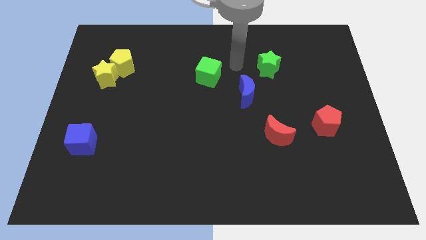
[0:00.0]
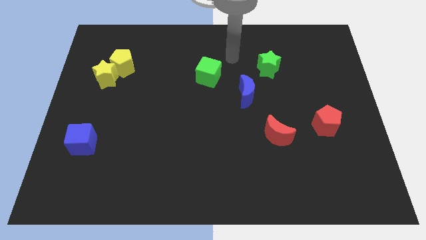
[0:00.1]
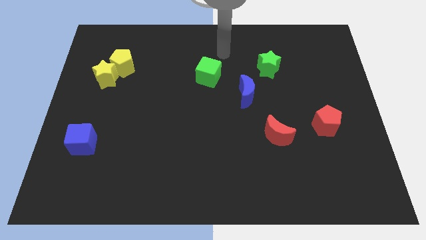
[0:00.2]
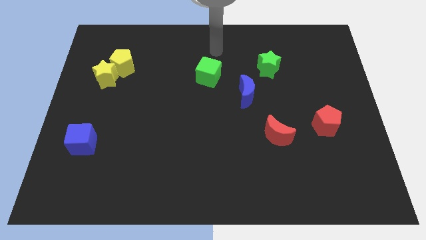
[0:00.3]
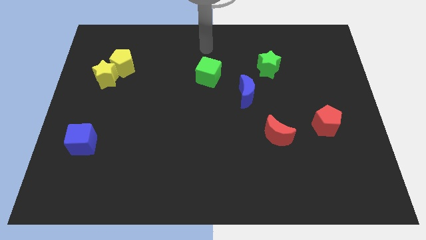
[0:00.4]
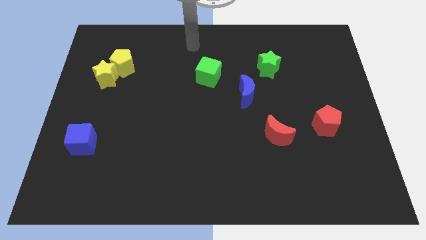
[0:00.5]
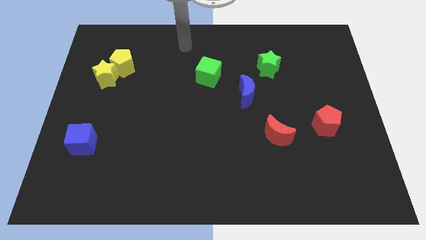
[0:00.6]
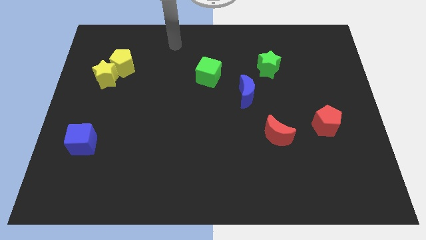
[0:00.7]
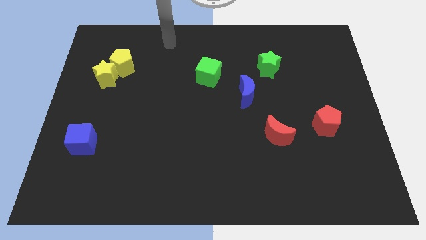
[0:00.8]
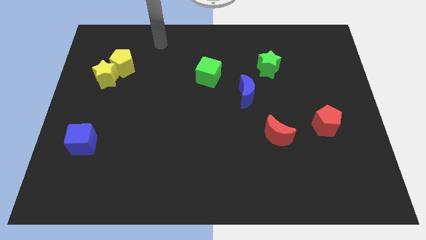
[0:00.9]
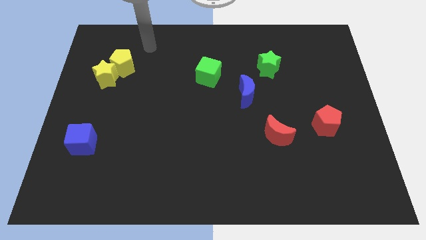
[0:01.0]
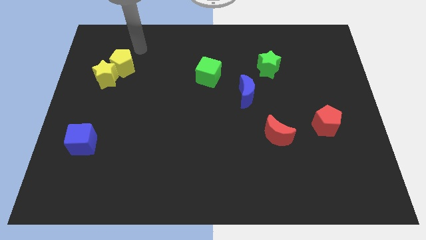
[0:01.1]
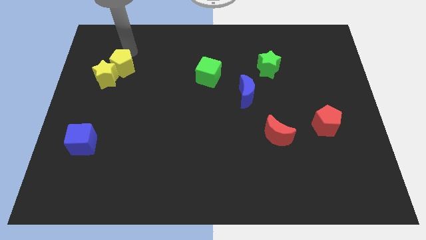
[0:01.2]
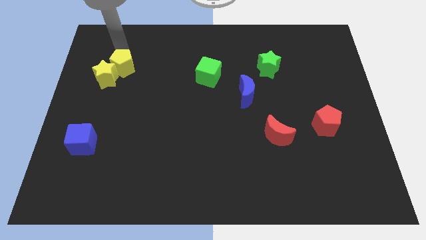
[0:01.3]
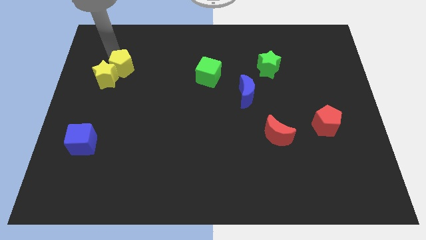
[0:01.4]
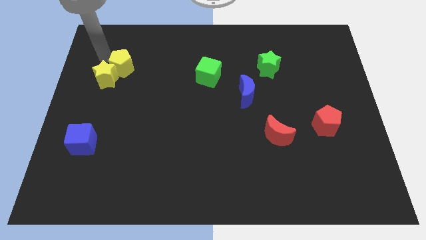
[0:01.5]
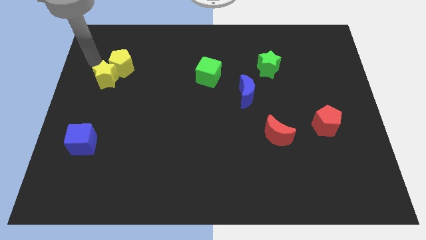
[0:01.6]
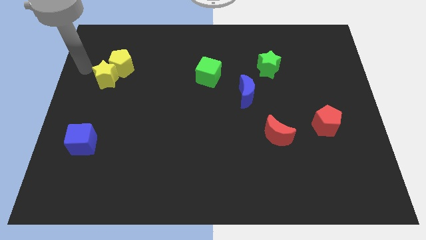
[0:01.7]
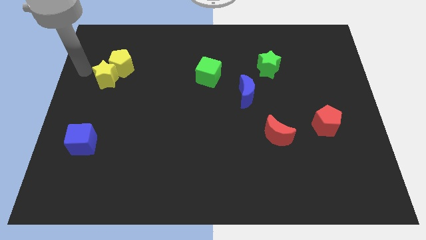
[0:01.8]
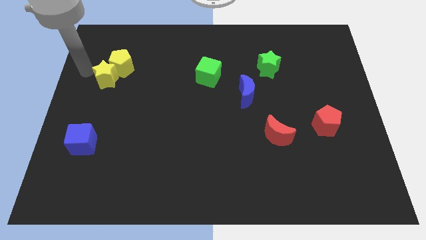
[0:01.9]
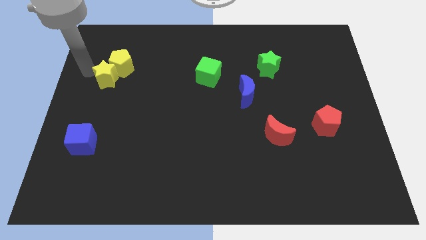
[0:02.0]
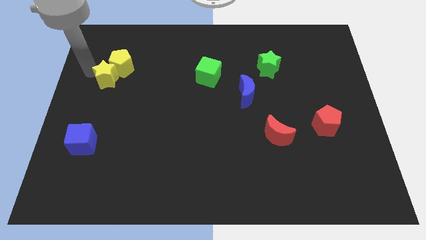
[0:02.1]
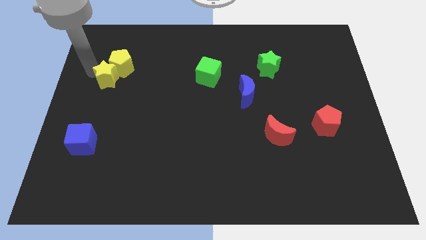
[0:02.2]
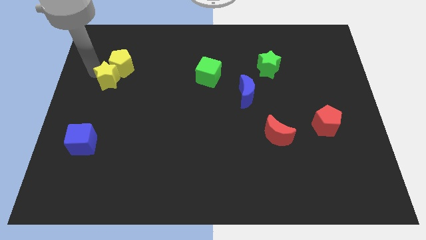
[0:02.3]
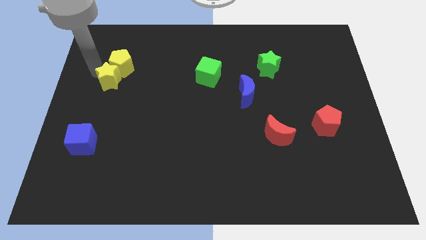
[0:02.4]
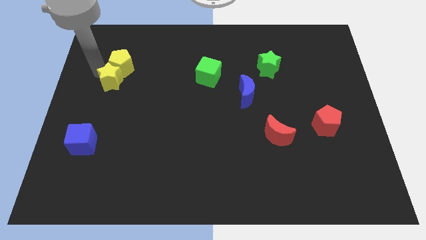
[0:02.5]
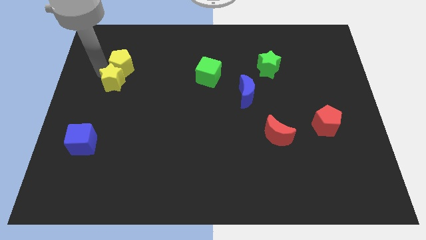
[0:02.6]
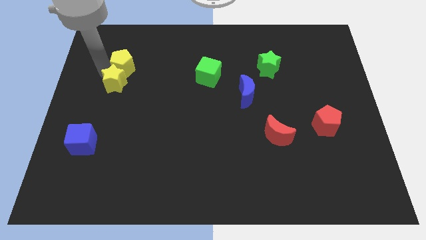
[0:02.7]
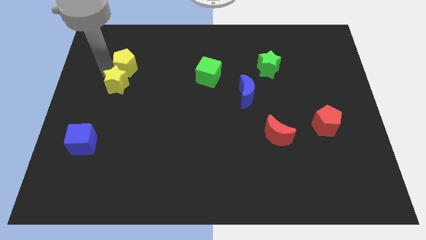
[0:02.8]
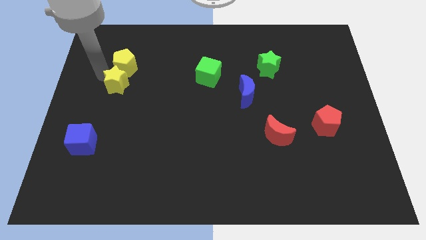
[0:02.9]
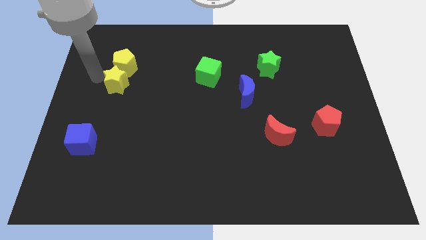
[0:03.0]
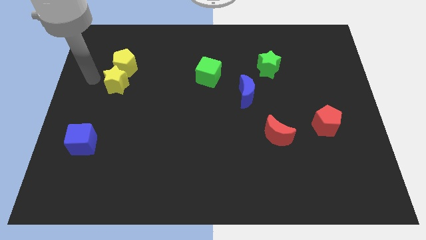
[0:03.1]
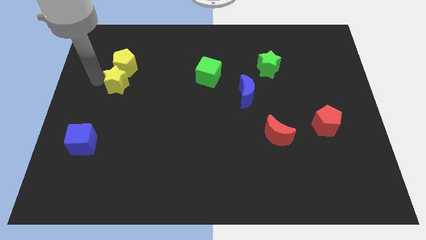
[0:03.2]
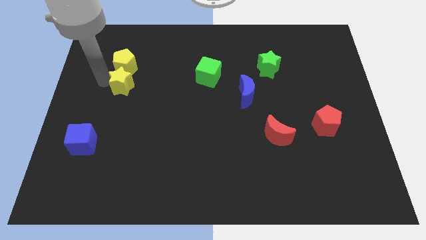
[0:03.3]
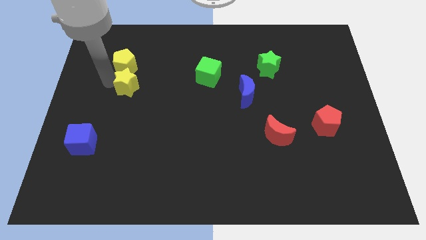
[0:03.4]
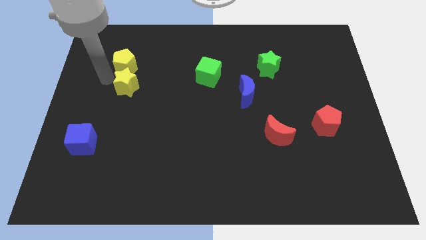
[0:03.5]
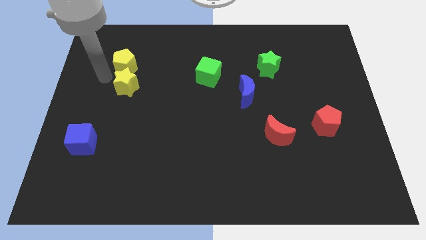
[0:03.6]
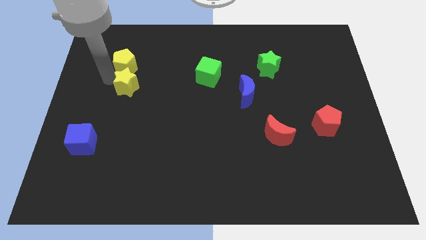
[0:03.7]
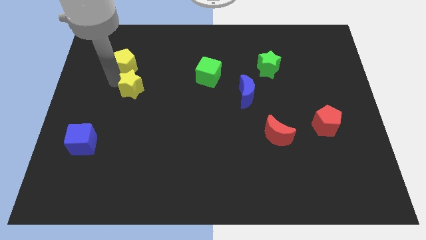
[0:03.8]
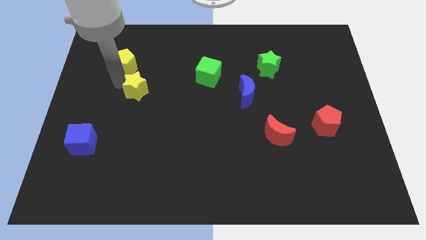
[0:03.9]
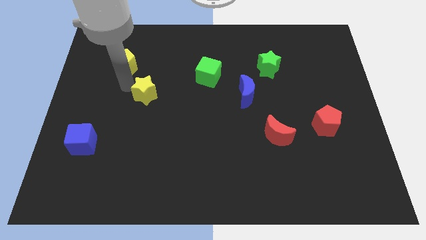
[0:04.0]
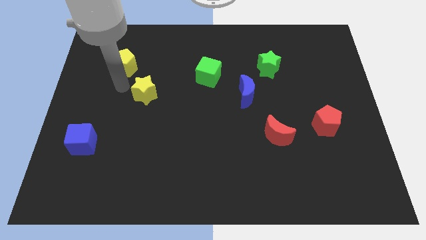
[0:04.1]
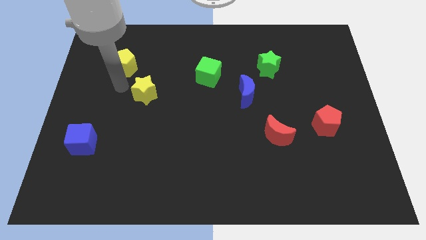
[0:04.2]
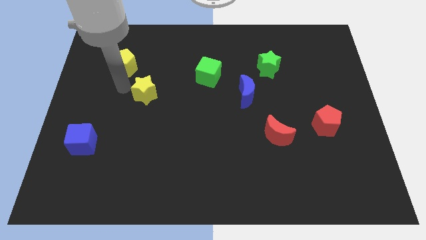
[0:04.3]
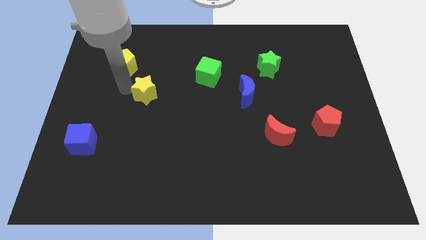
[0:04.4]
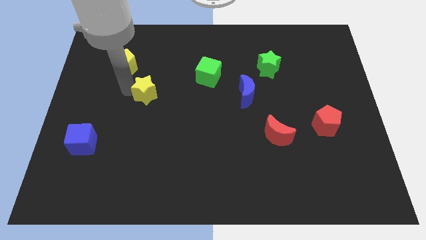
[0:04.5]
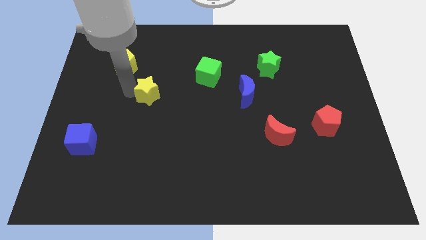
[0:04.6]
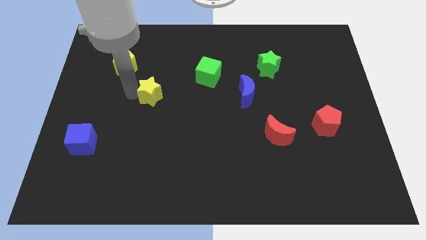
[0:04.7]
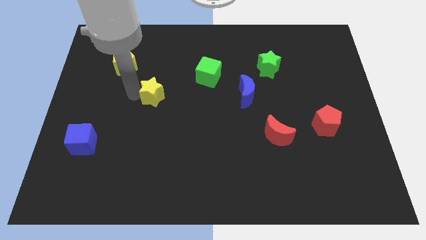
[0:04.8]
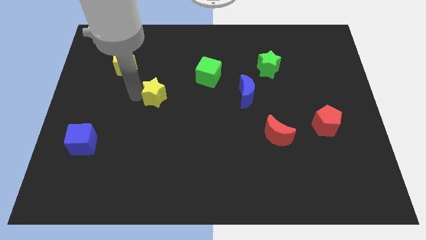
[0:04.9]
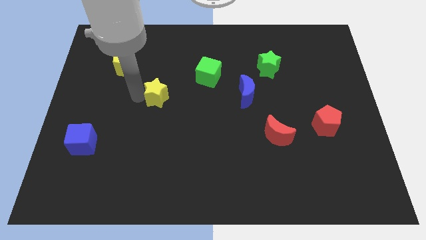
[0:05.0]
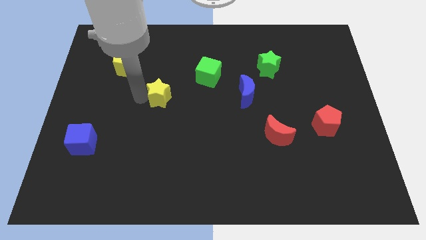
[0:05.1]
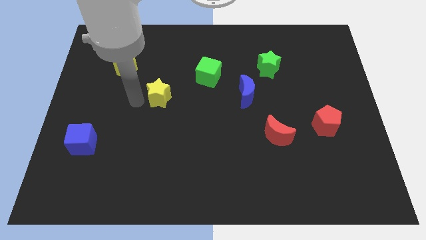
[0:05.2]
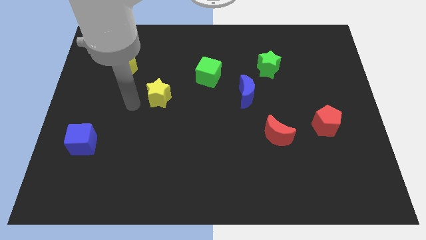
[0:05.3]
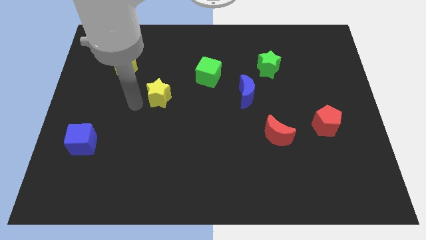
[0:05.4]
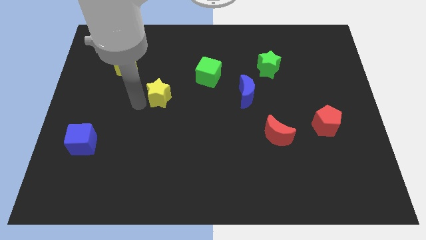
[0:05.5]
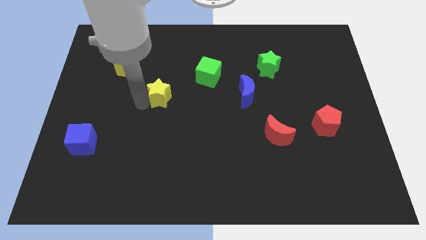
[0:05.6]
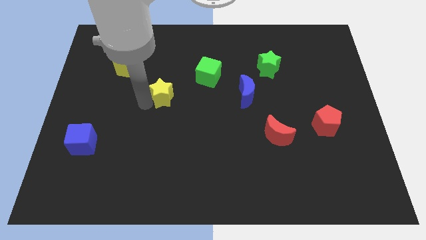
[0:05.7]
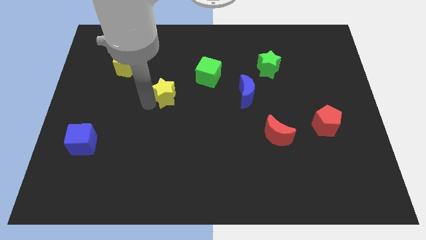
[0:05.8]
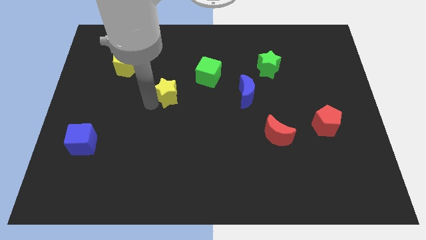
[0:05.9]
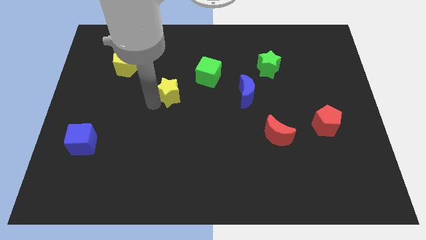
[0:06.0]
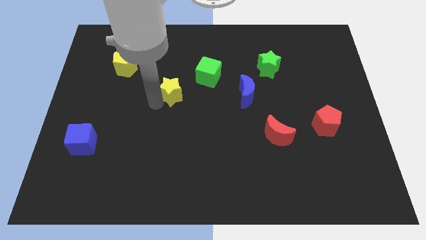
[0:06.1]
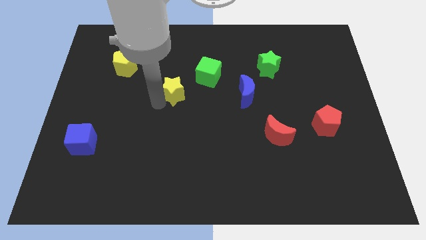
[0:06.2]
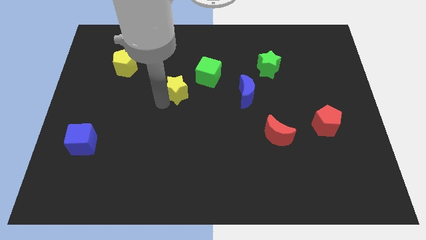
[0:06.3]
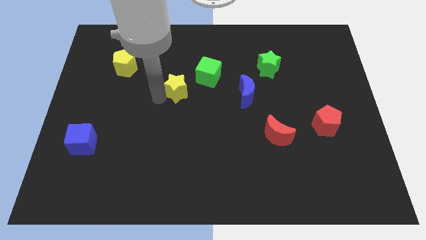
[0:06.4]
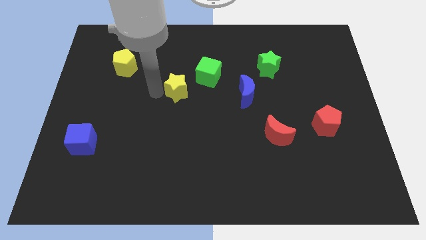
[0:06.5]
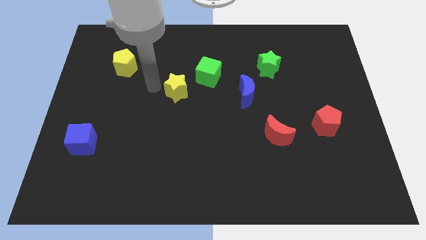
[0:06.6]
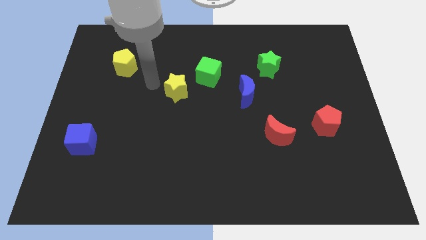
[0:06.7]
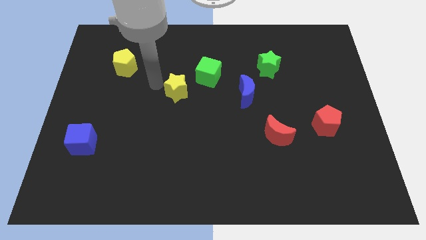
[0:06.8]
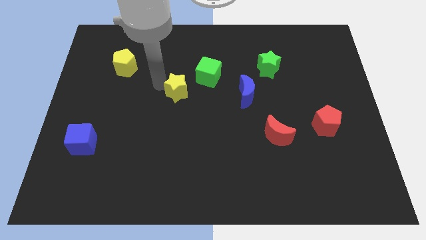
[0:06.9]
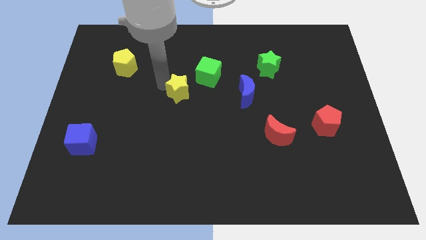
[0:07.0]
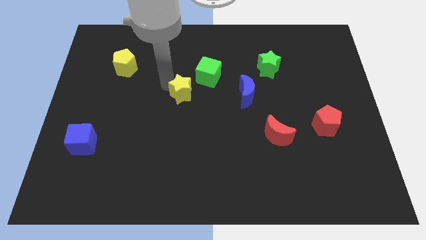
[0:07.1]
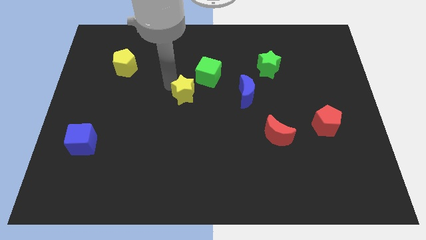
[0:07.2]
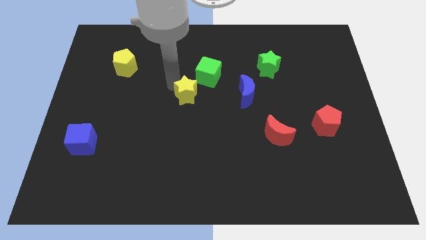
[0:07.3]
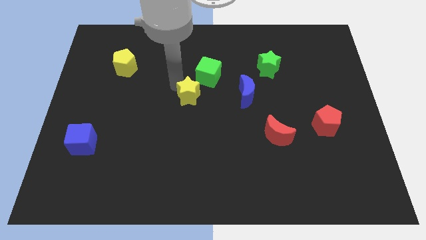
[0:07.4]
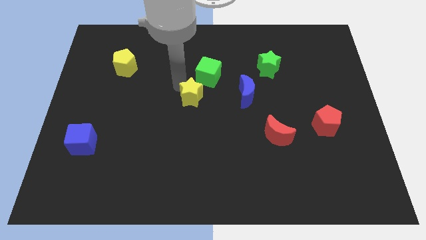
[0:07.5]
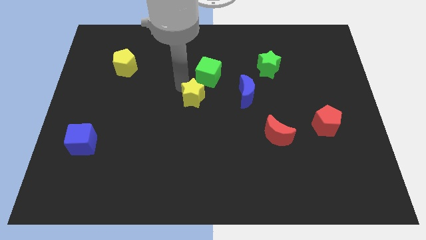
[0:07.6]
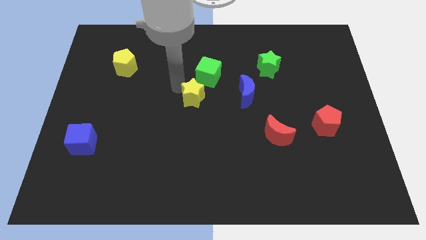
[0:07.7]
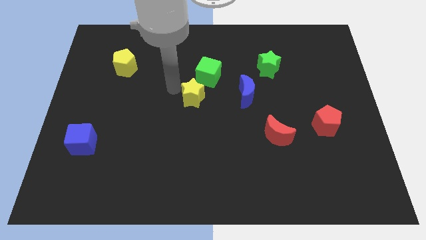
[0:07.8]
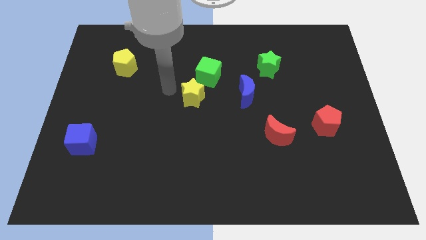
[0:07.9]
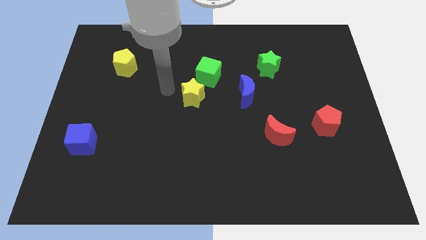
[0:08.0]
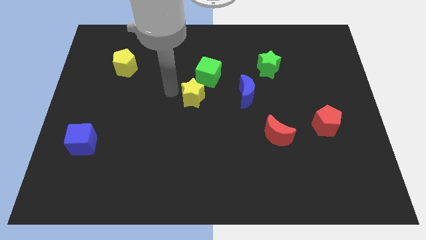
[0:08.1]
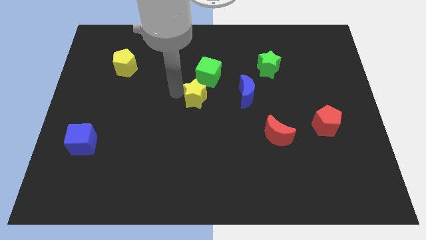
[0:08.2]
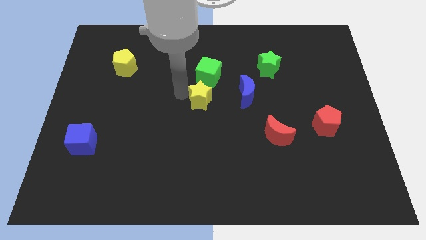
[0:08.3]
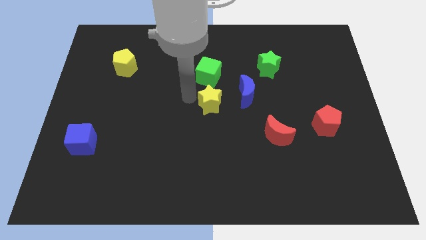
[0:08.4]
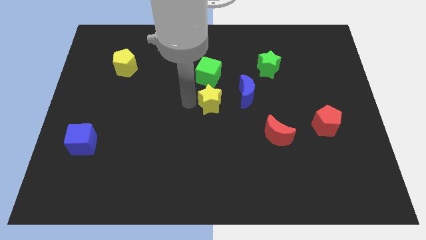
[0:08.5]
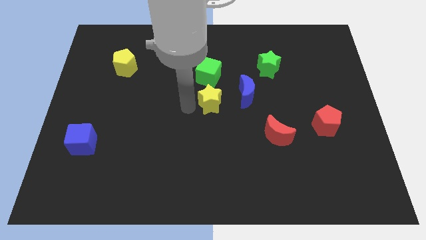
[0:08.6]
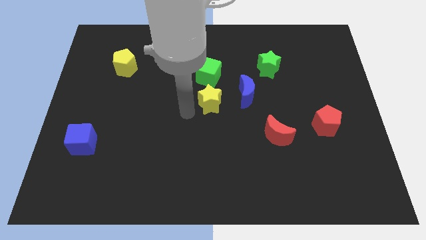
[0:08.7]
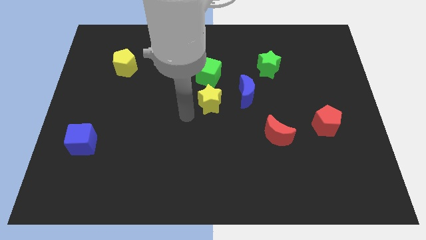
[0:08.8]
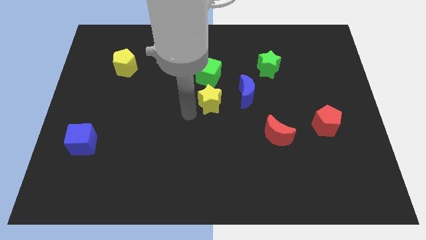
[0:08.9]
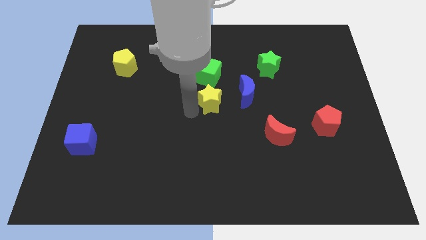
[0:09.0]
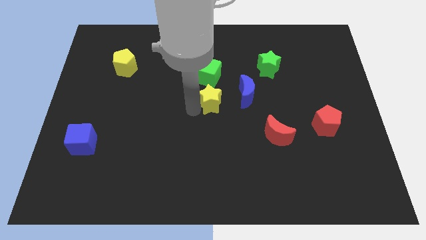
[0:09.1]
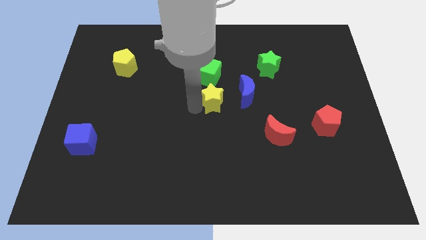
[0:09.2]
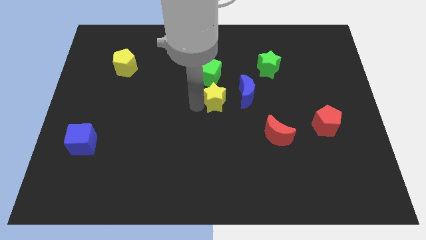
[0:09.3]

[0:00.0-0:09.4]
slide the yellow star to the bottom right of the green cube
